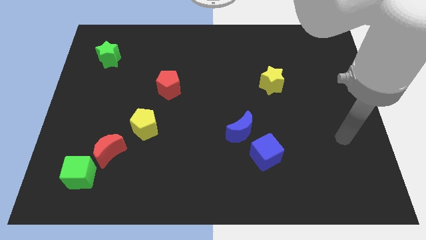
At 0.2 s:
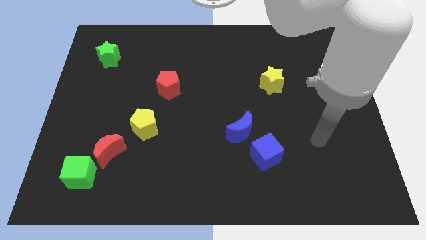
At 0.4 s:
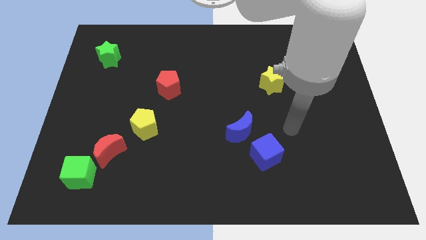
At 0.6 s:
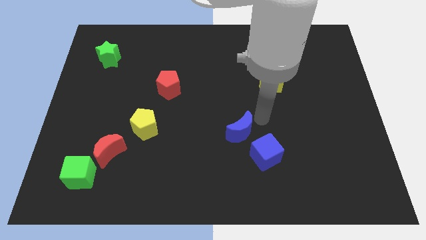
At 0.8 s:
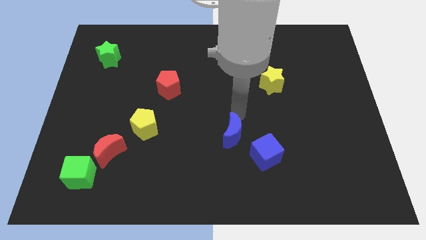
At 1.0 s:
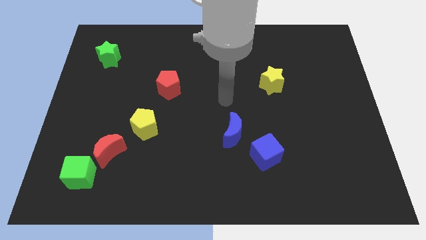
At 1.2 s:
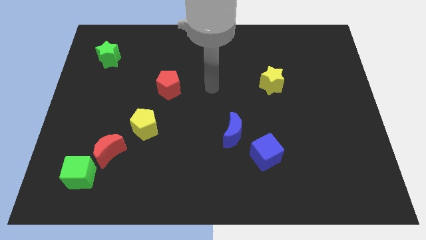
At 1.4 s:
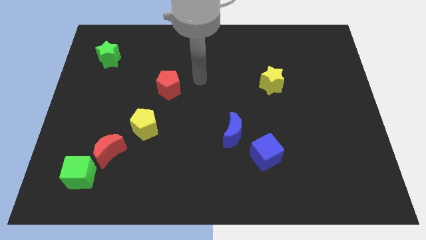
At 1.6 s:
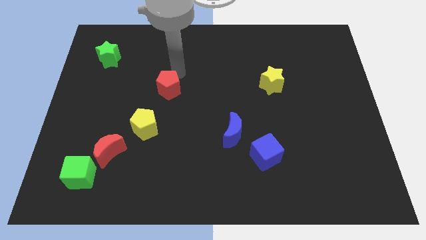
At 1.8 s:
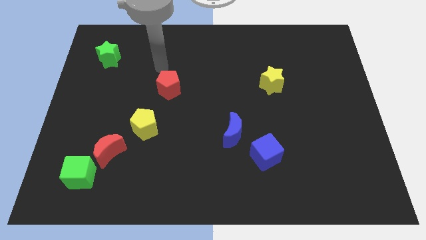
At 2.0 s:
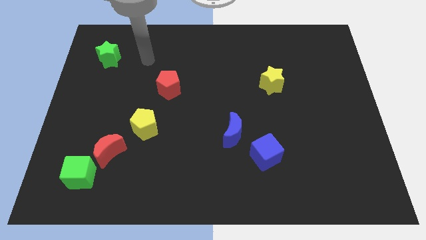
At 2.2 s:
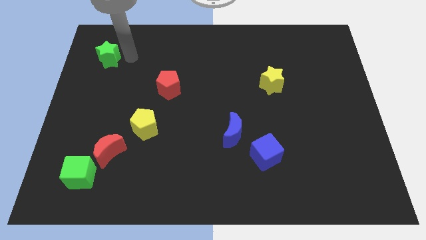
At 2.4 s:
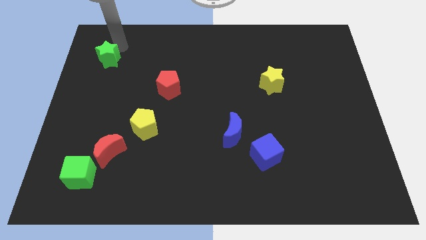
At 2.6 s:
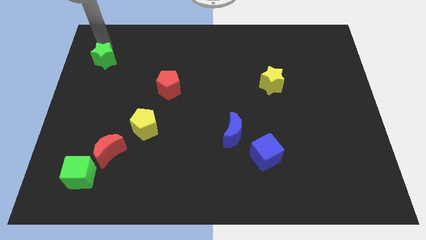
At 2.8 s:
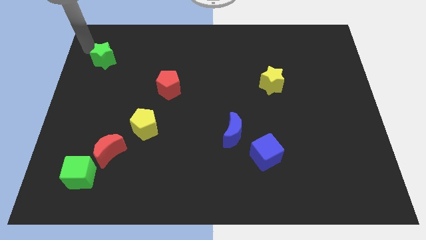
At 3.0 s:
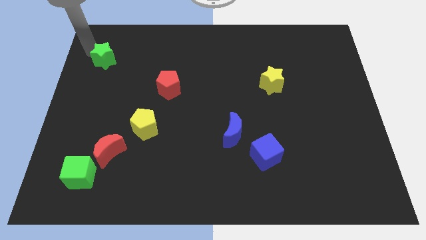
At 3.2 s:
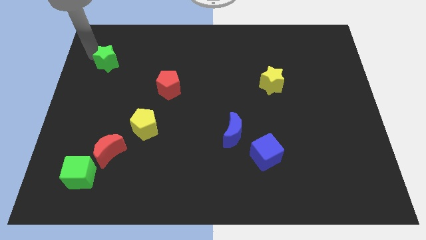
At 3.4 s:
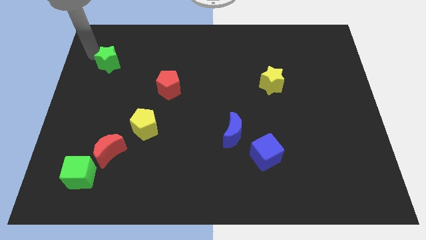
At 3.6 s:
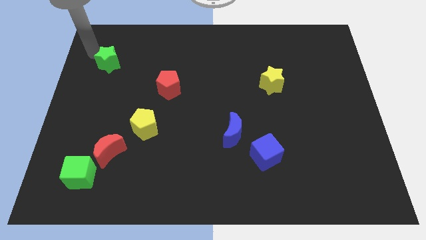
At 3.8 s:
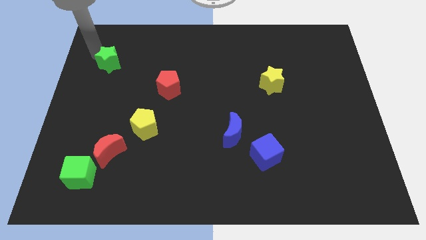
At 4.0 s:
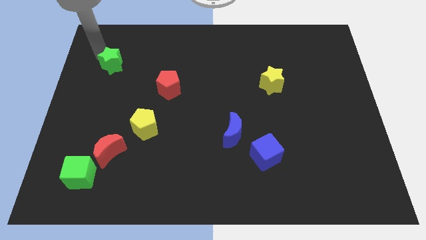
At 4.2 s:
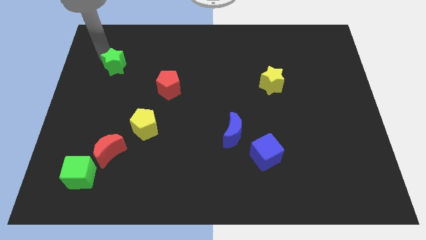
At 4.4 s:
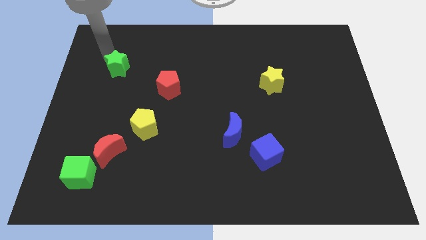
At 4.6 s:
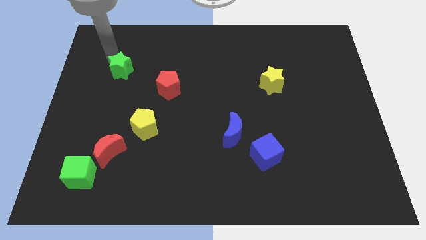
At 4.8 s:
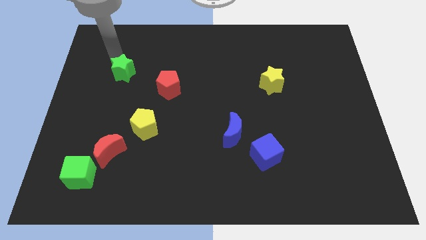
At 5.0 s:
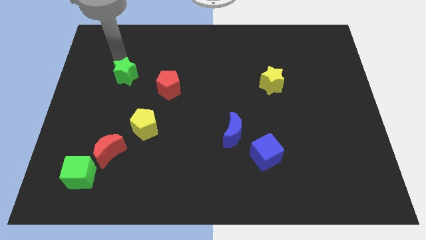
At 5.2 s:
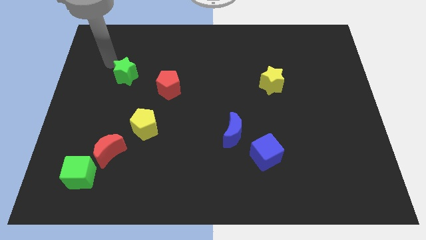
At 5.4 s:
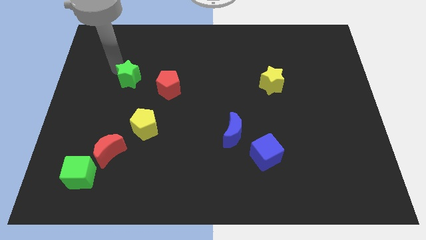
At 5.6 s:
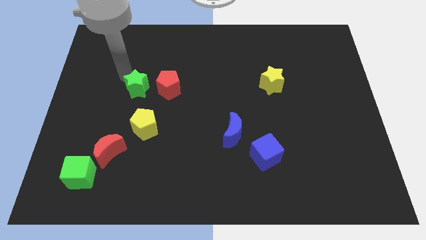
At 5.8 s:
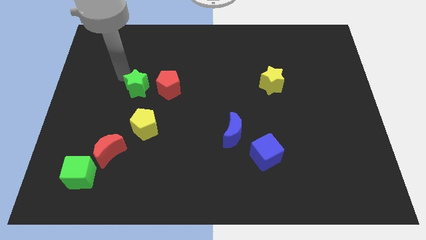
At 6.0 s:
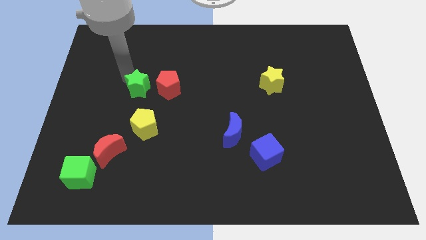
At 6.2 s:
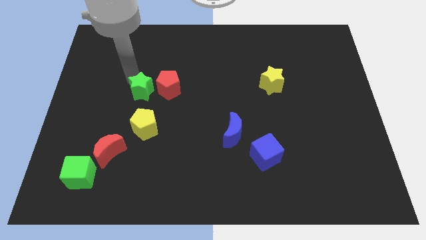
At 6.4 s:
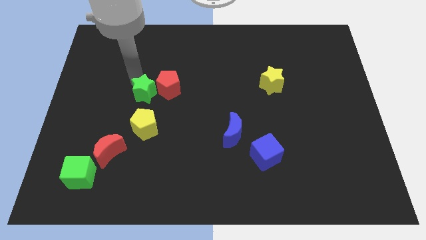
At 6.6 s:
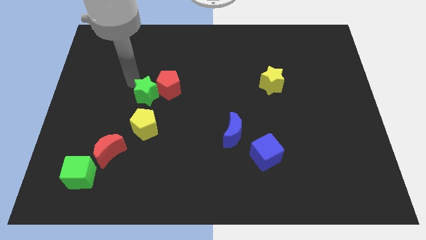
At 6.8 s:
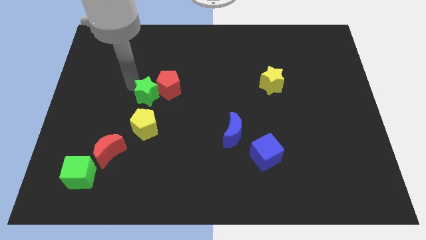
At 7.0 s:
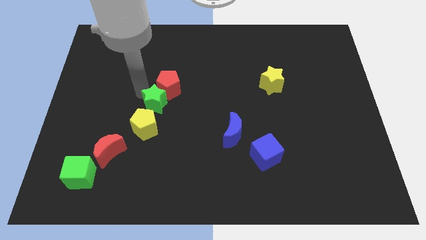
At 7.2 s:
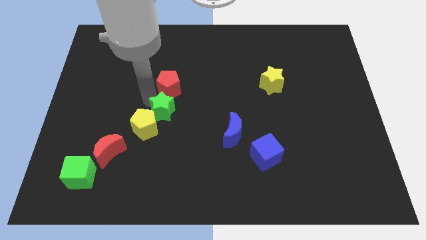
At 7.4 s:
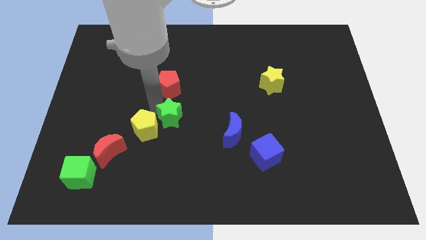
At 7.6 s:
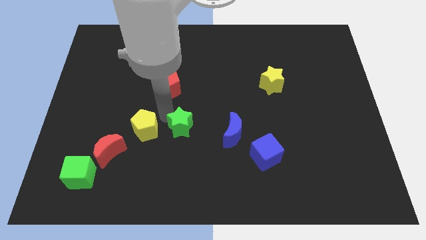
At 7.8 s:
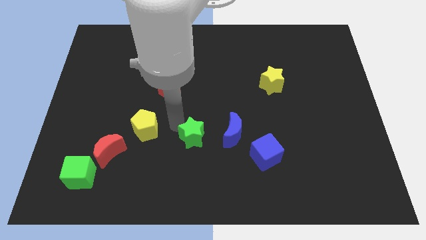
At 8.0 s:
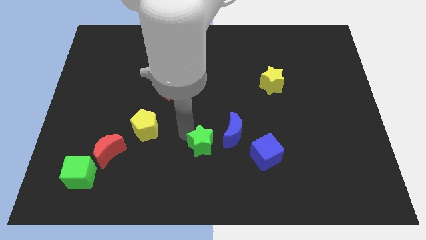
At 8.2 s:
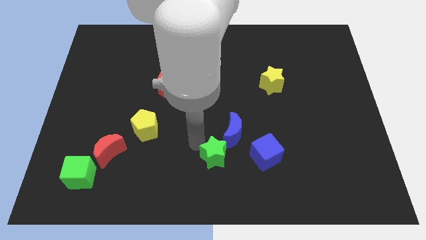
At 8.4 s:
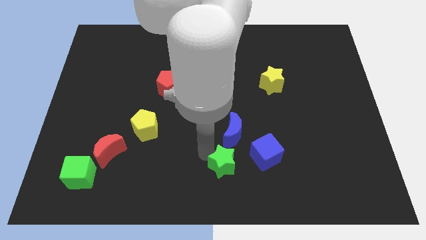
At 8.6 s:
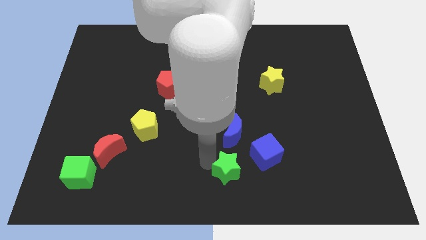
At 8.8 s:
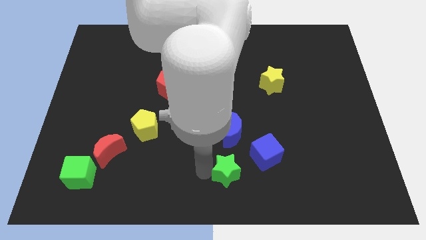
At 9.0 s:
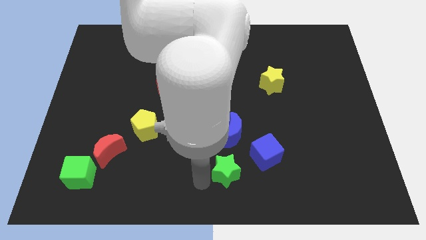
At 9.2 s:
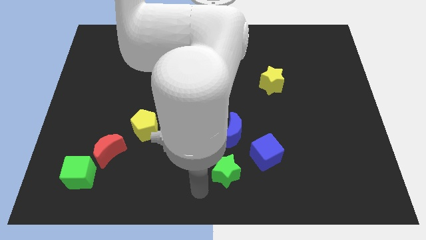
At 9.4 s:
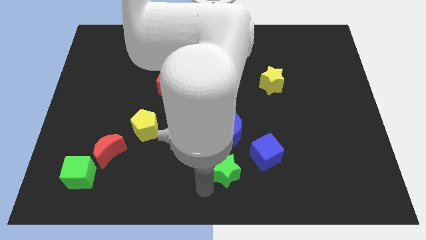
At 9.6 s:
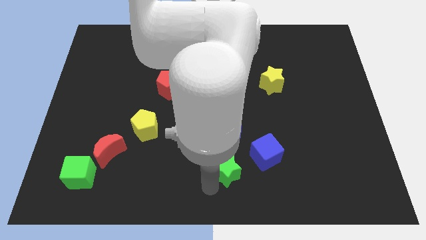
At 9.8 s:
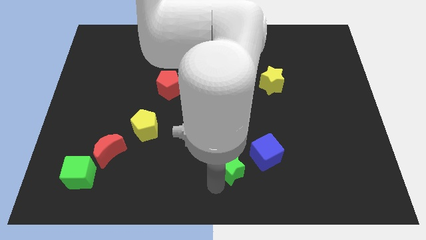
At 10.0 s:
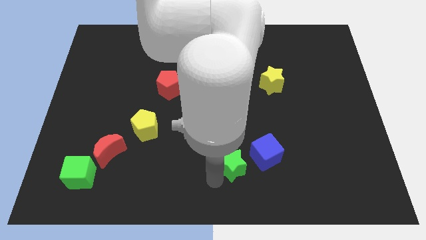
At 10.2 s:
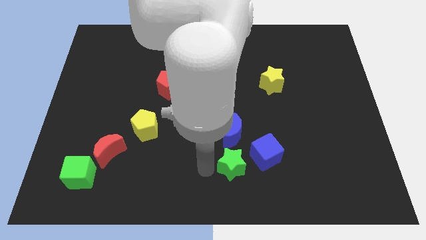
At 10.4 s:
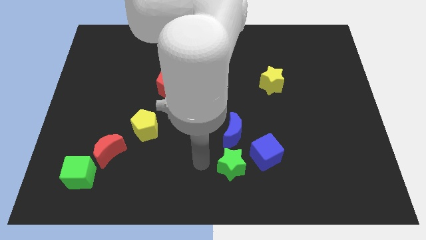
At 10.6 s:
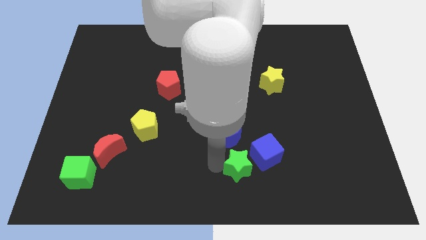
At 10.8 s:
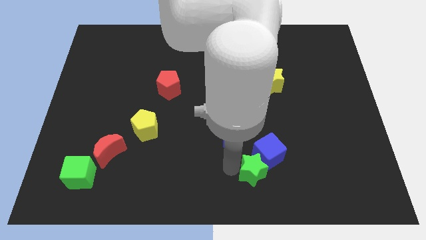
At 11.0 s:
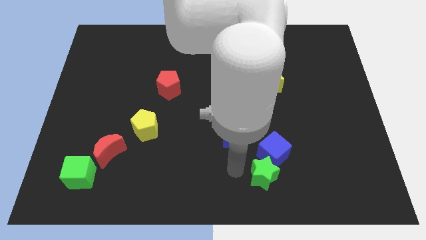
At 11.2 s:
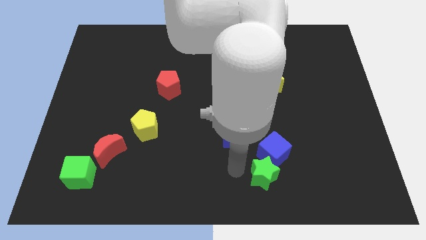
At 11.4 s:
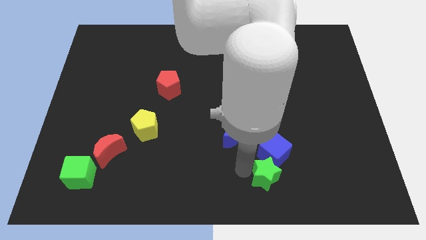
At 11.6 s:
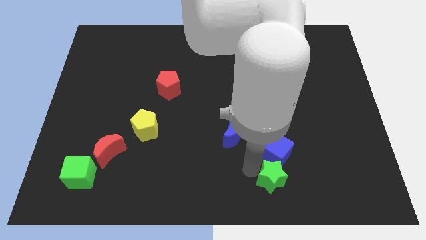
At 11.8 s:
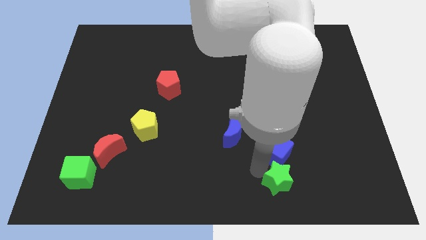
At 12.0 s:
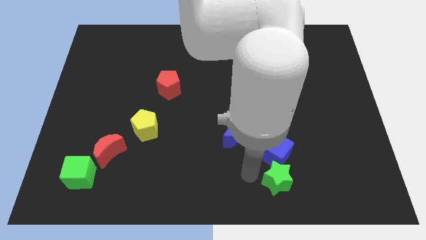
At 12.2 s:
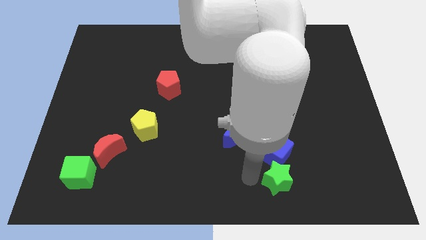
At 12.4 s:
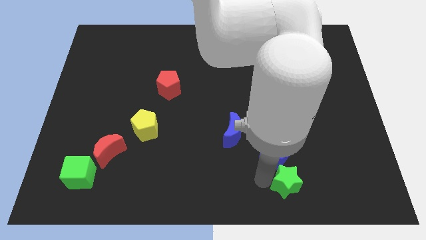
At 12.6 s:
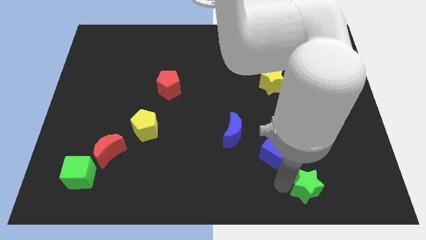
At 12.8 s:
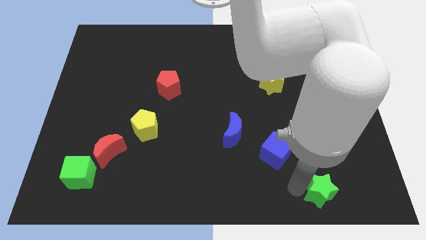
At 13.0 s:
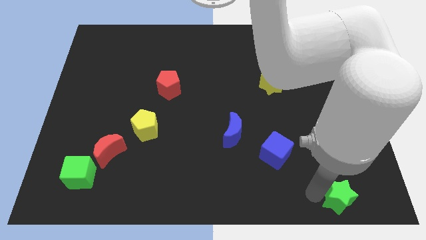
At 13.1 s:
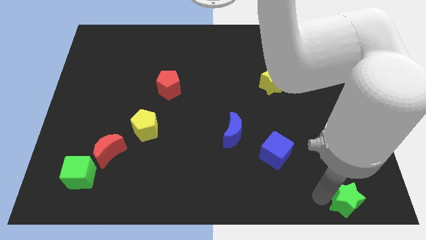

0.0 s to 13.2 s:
slide the green star to the bottom right corner

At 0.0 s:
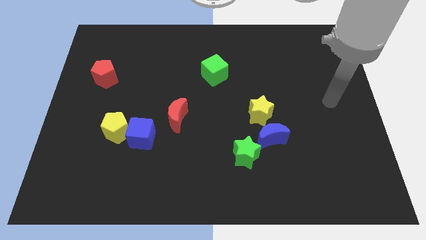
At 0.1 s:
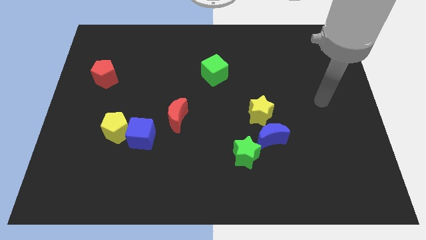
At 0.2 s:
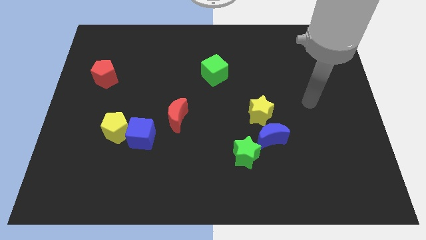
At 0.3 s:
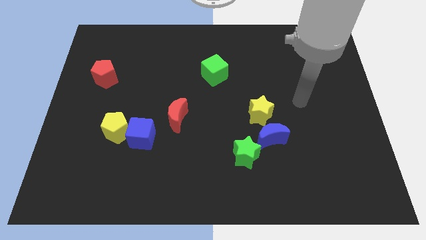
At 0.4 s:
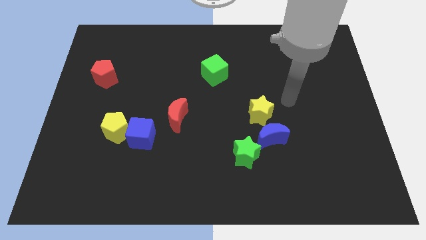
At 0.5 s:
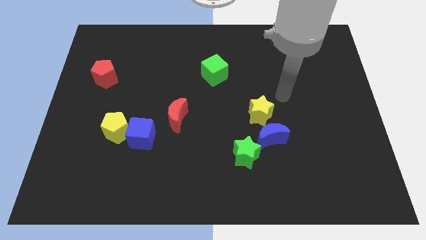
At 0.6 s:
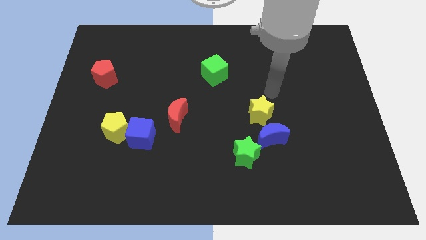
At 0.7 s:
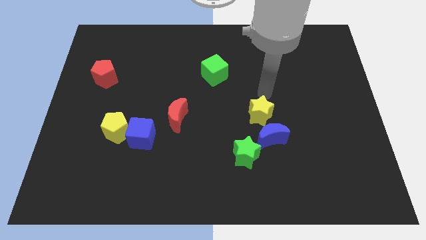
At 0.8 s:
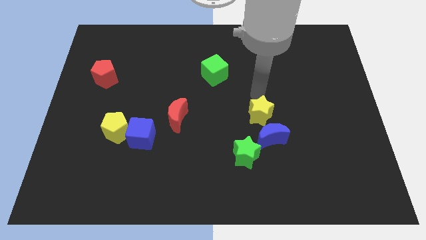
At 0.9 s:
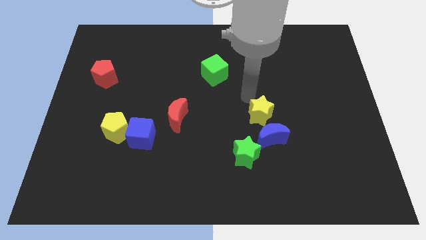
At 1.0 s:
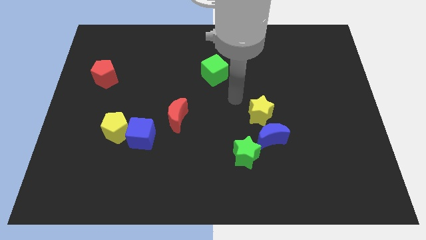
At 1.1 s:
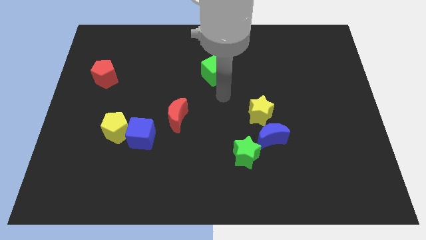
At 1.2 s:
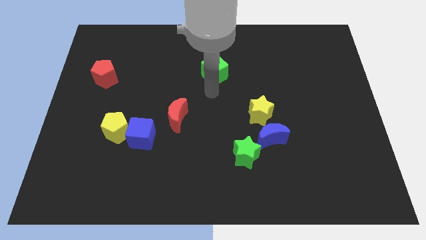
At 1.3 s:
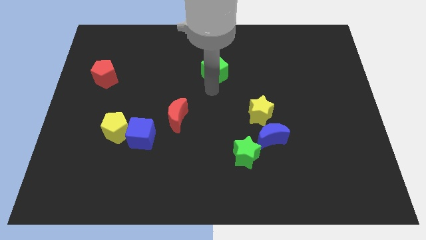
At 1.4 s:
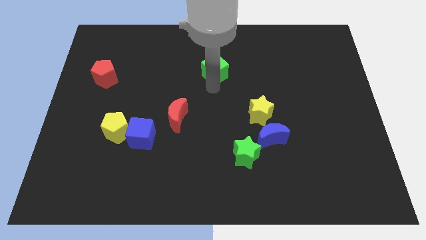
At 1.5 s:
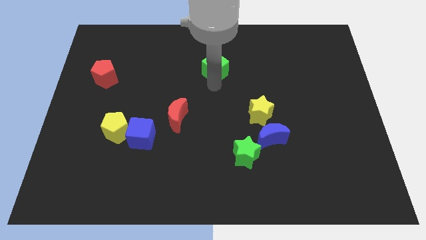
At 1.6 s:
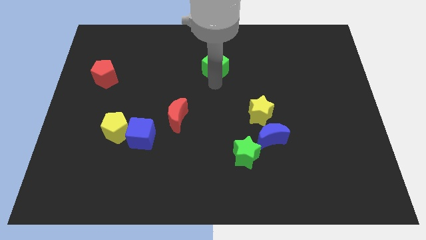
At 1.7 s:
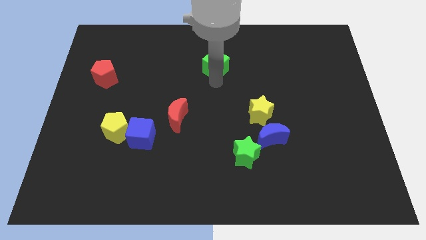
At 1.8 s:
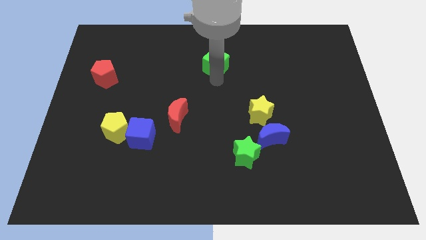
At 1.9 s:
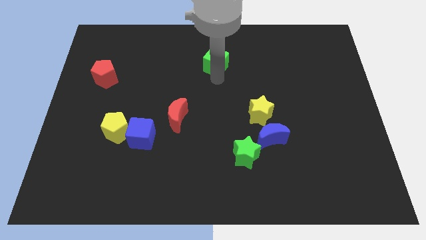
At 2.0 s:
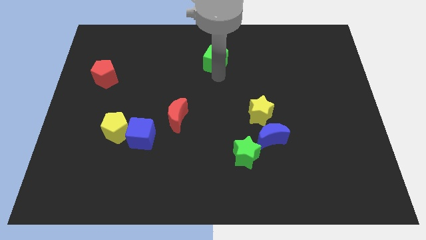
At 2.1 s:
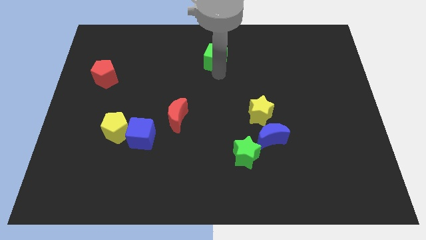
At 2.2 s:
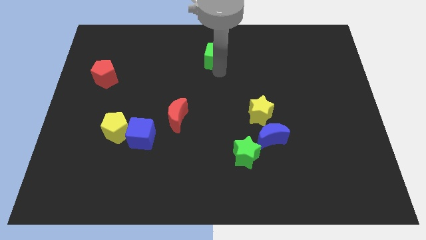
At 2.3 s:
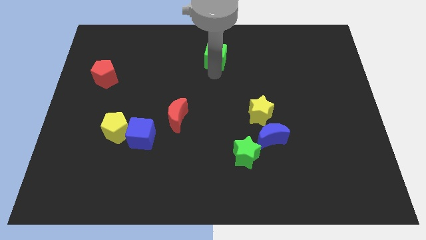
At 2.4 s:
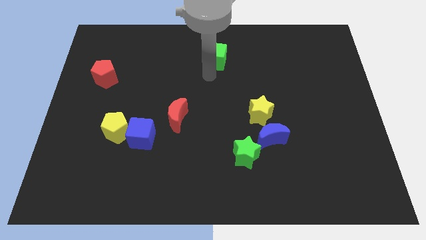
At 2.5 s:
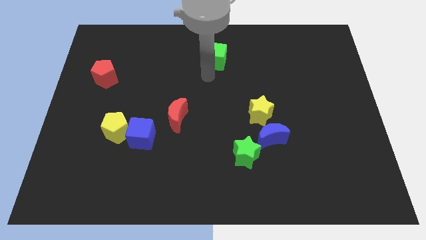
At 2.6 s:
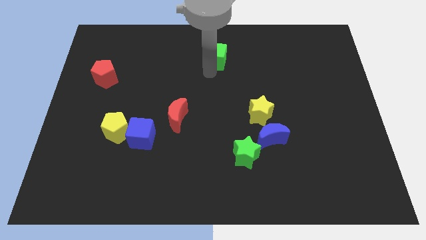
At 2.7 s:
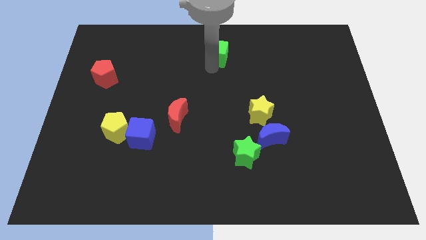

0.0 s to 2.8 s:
slide the green cube to the towards your base
